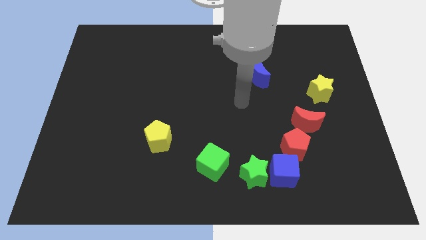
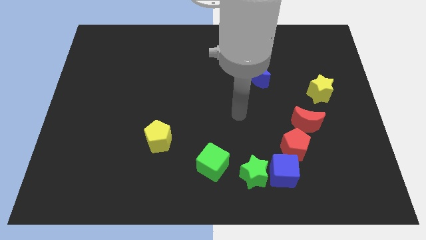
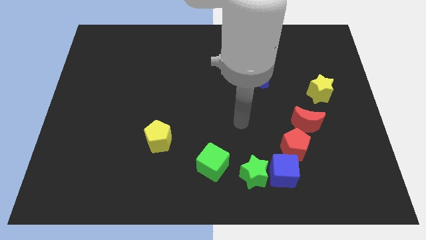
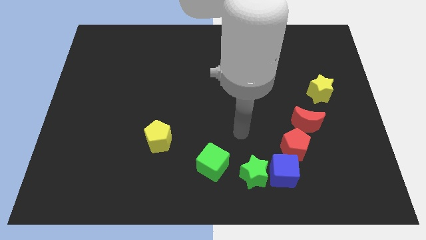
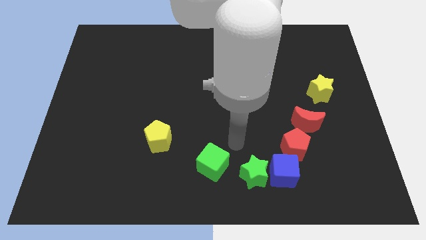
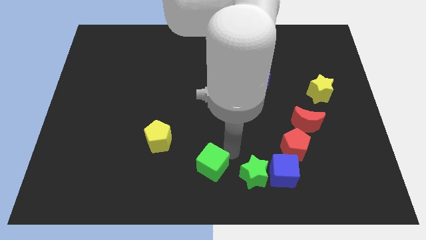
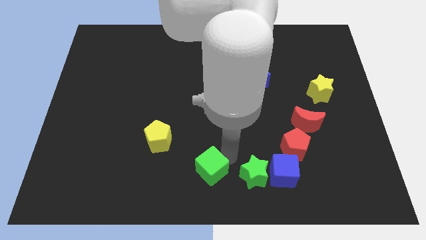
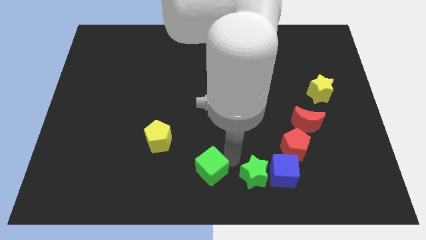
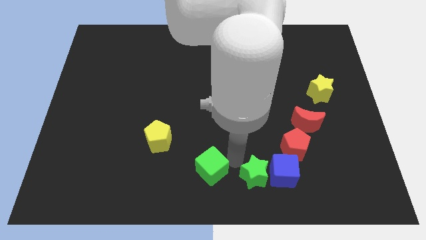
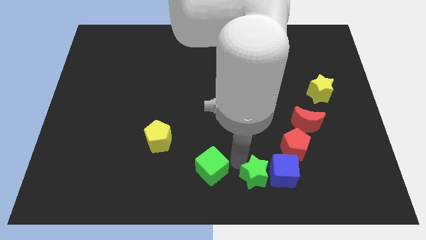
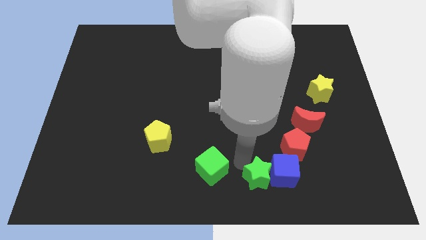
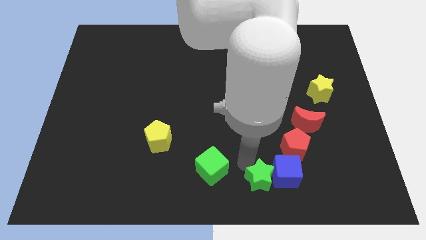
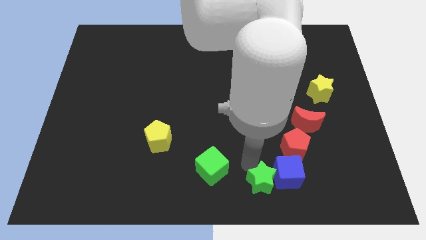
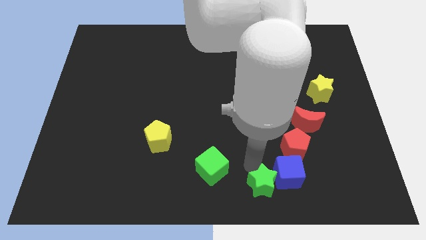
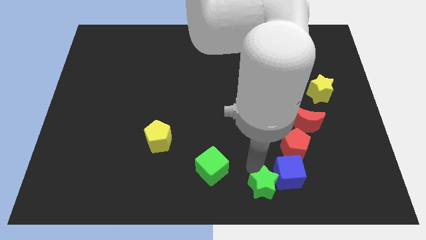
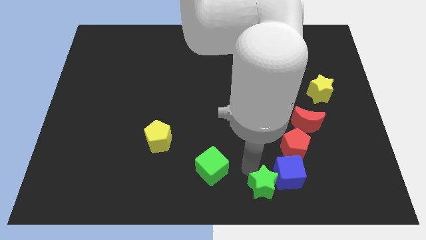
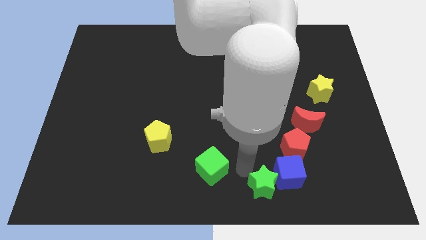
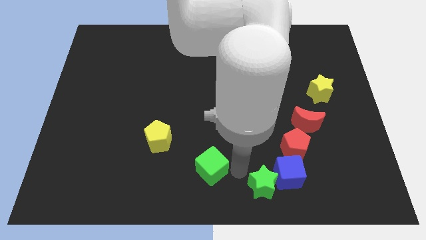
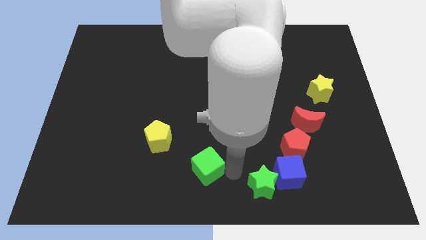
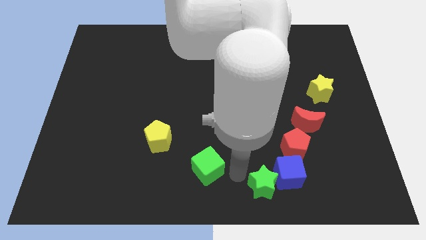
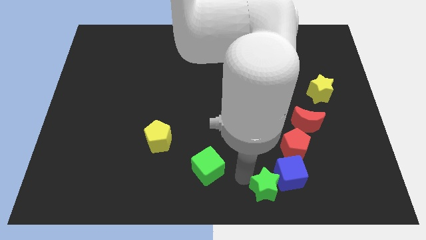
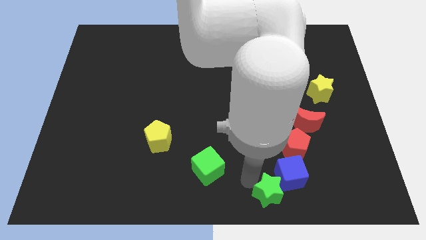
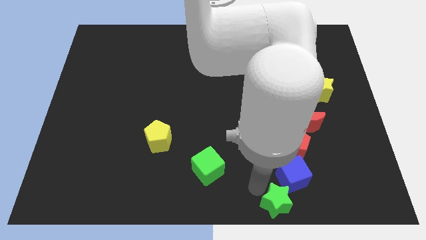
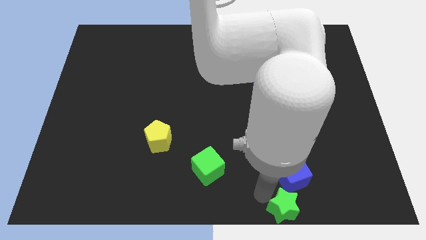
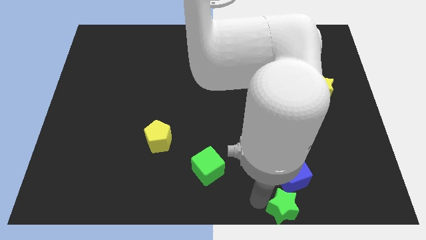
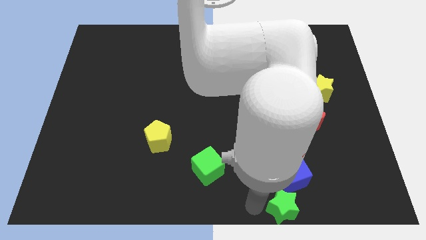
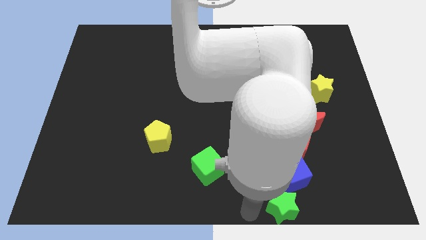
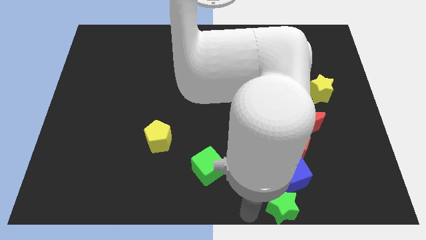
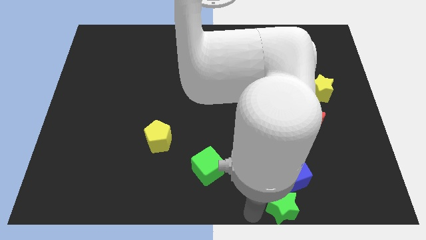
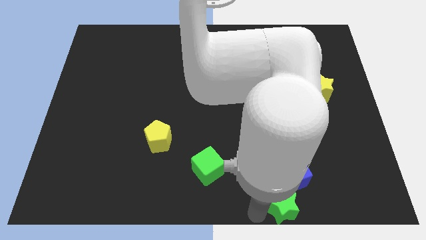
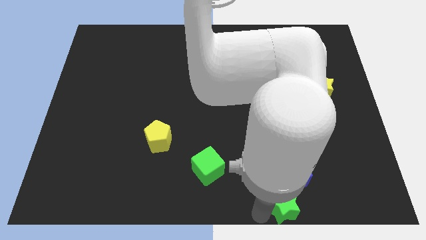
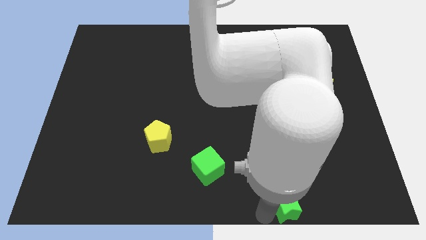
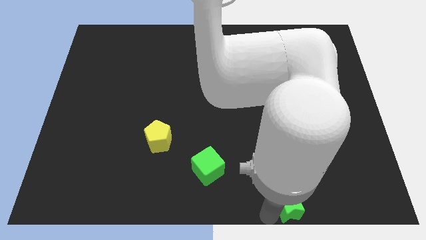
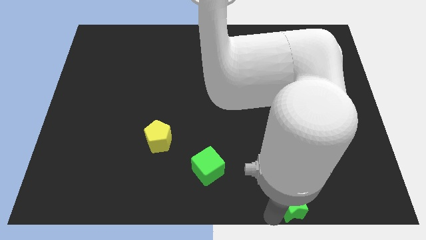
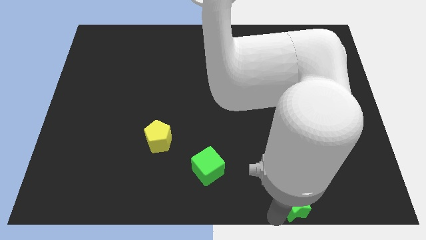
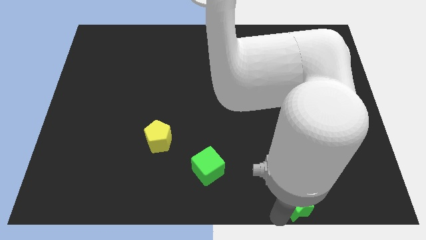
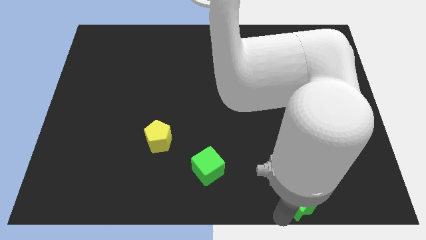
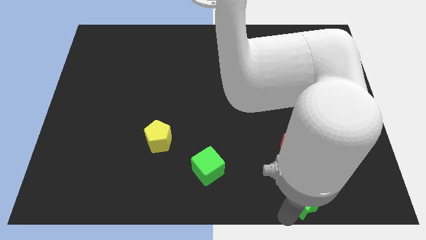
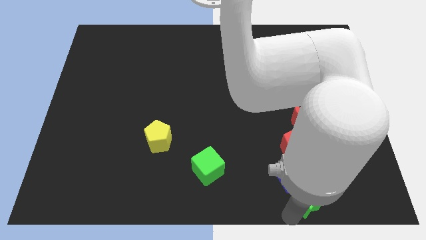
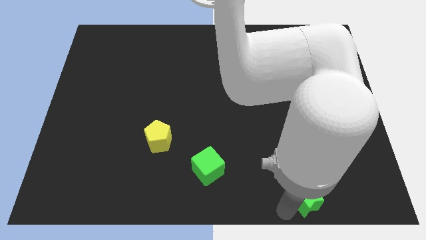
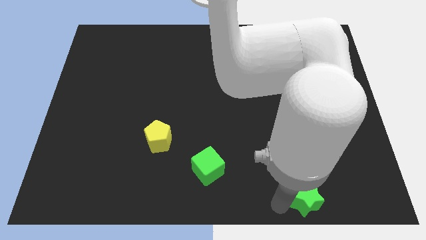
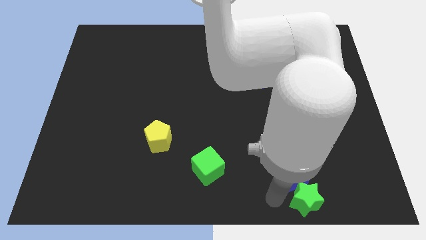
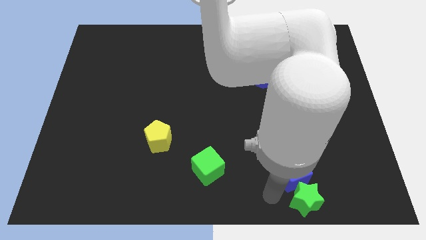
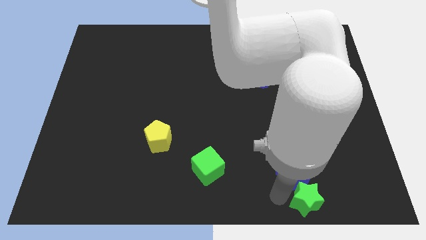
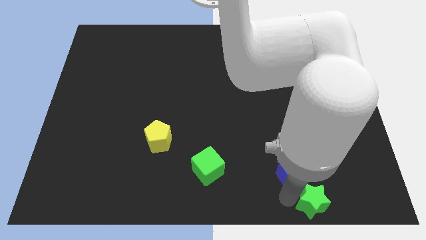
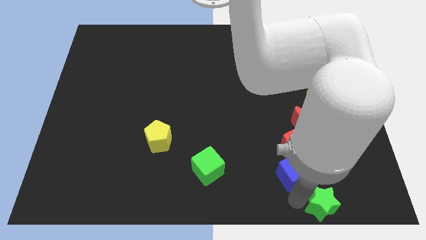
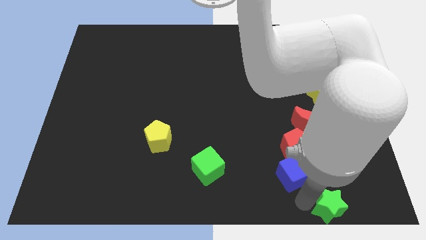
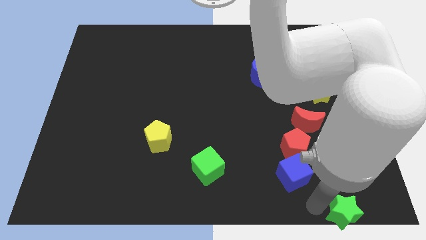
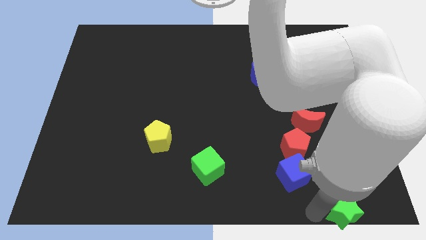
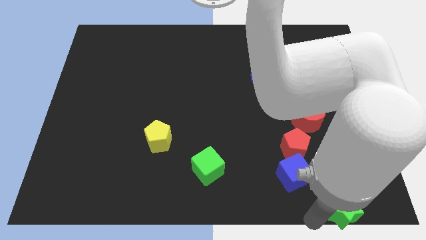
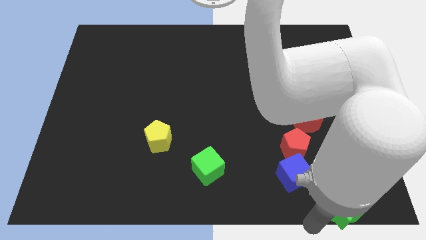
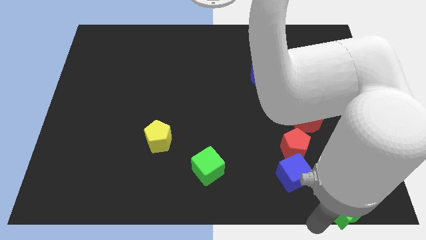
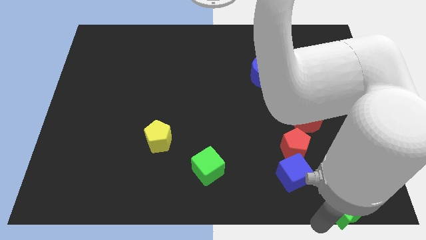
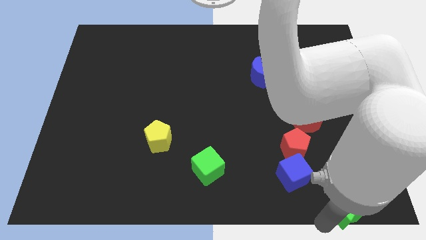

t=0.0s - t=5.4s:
push the green star to the lower right corner

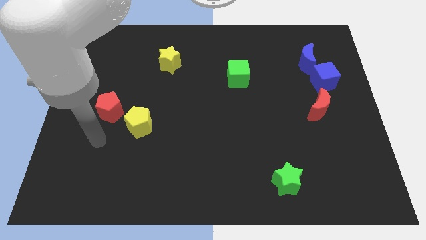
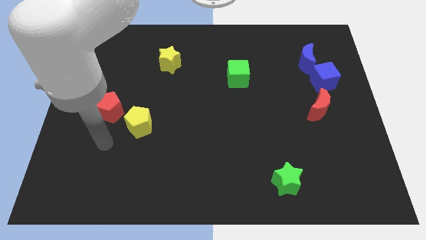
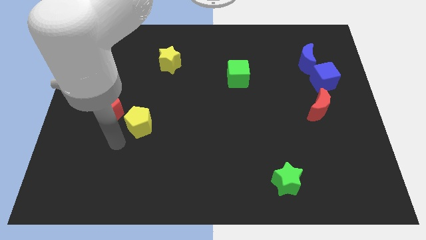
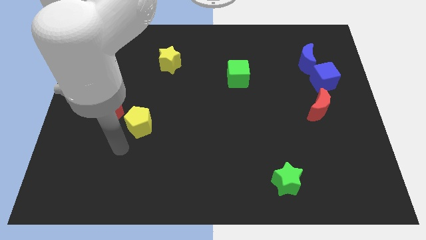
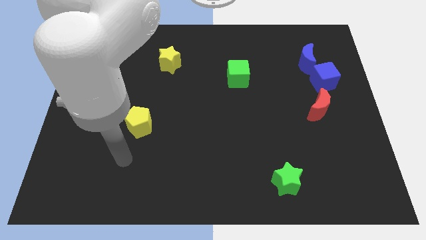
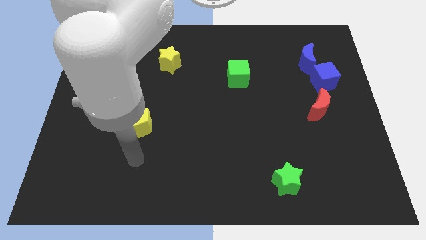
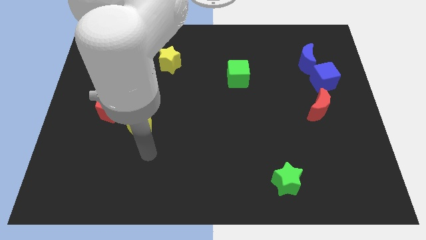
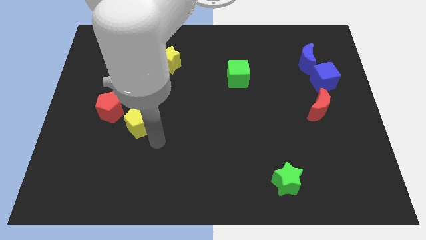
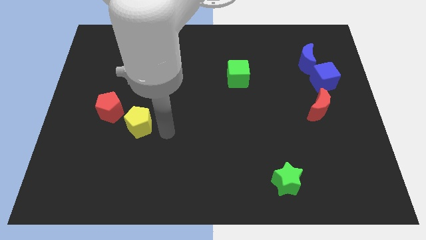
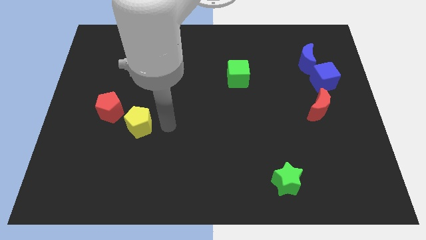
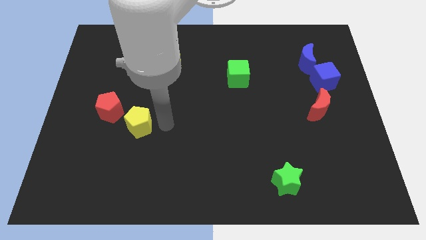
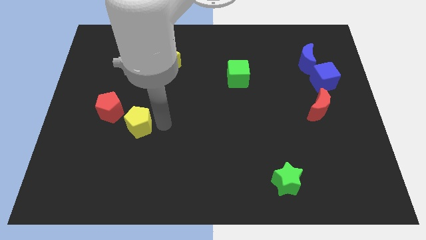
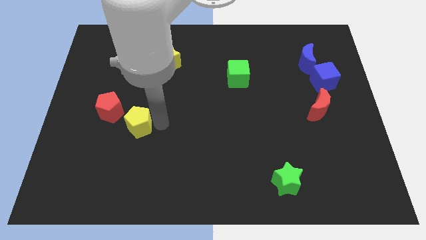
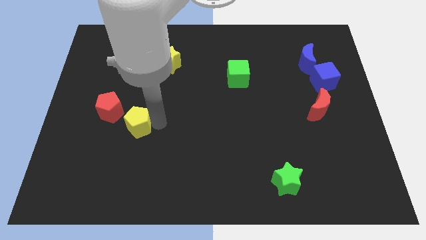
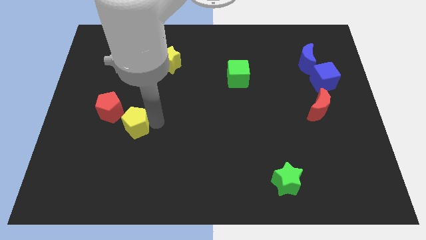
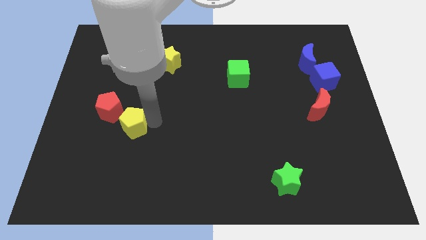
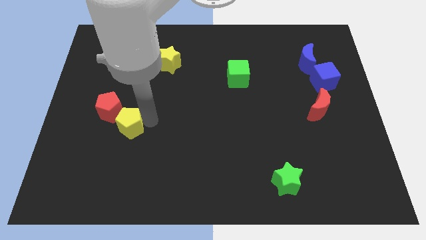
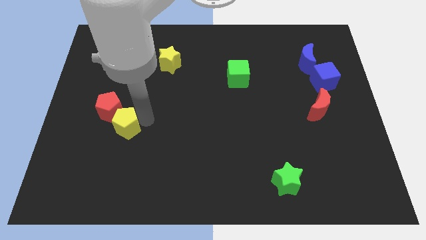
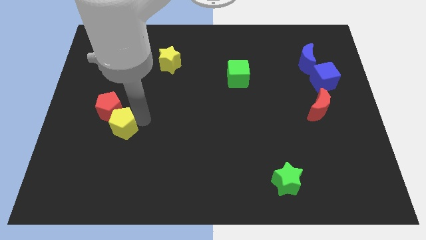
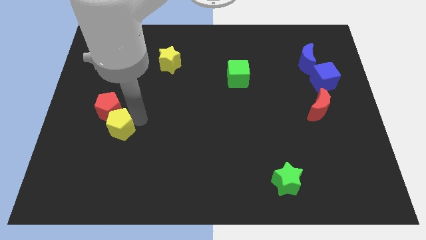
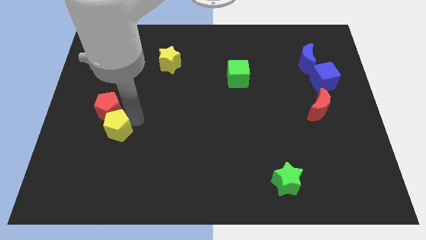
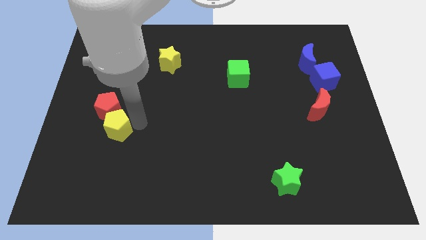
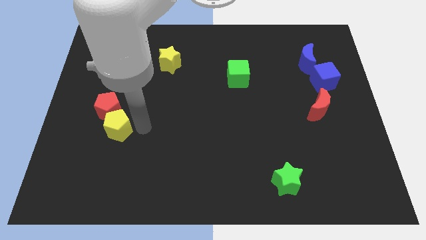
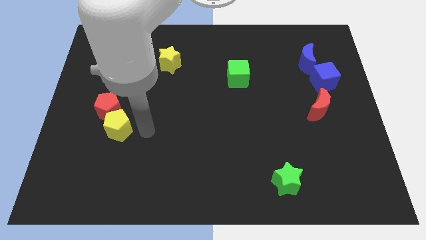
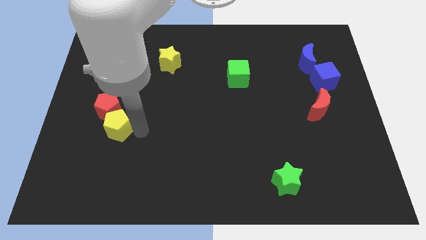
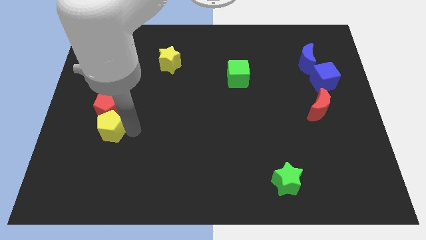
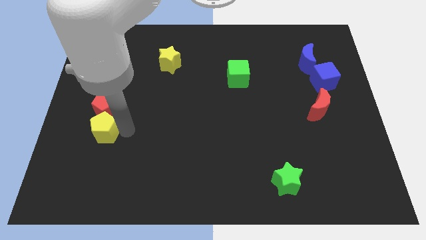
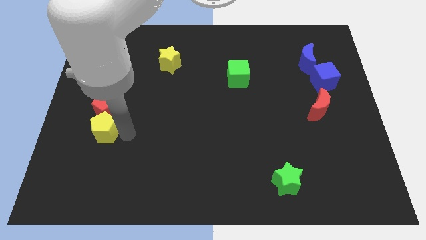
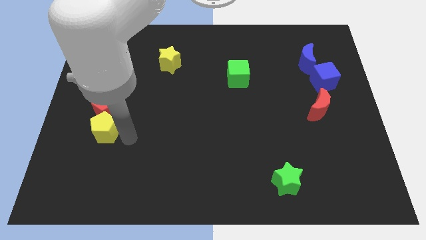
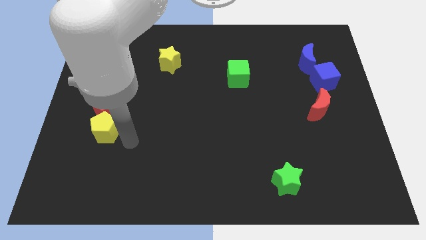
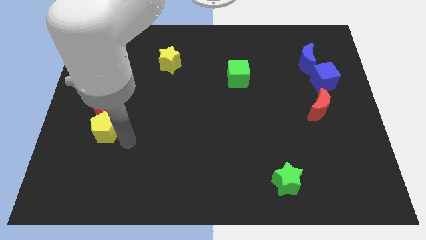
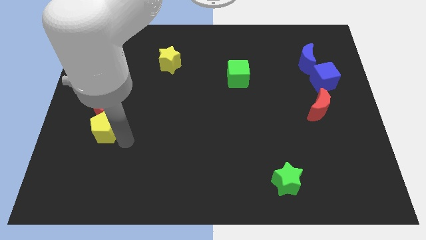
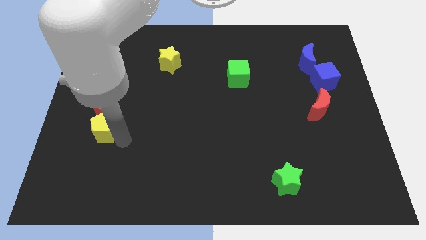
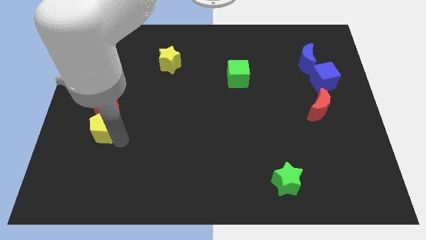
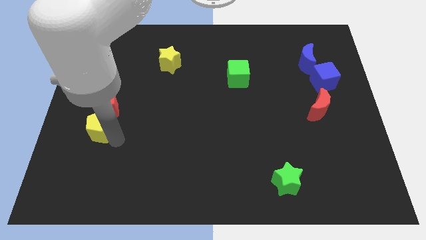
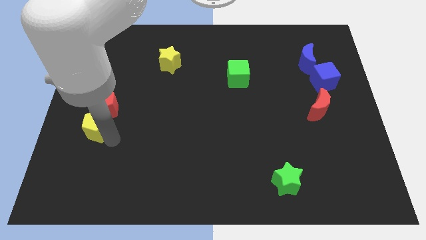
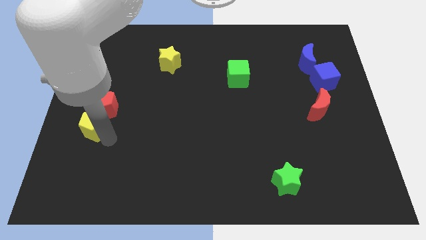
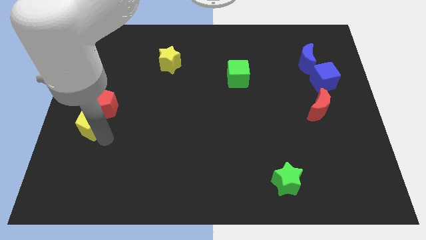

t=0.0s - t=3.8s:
push the yellow pentagon to the left side
